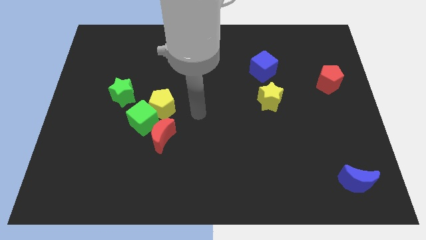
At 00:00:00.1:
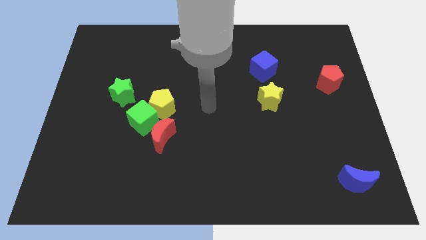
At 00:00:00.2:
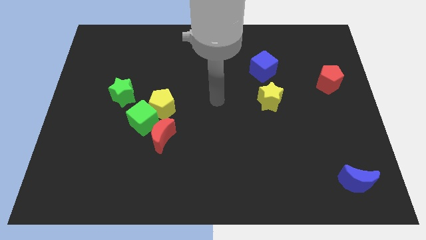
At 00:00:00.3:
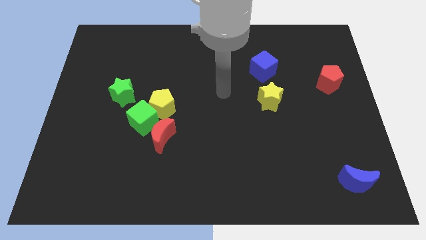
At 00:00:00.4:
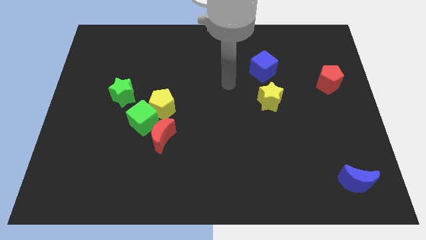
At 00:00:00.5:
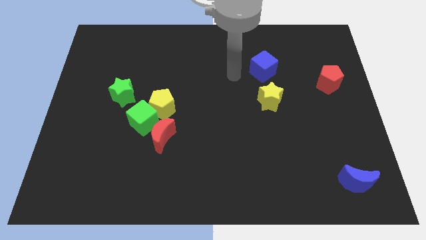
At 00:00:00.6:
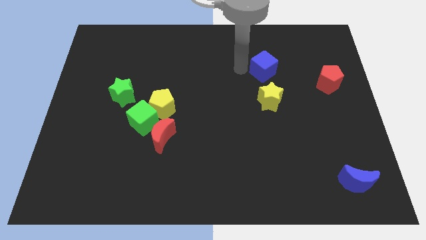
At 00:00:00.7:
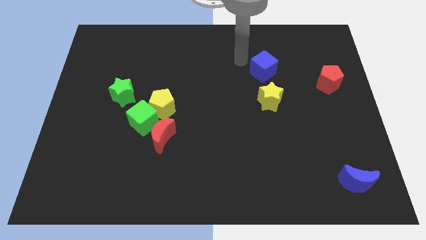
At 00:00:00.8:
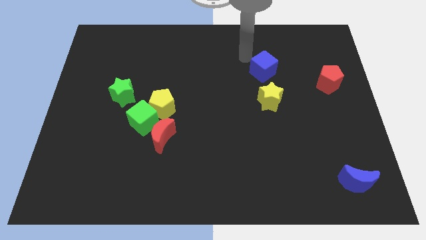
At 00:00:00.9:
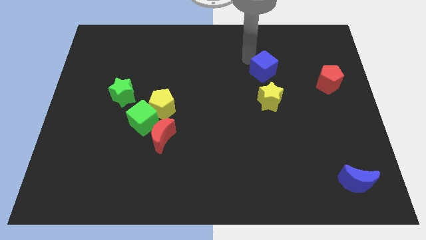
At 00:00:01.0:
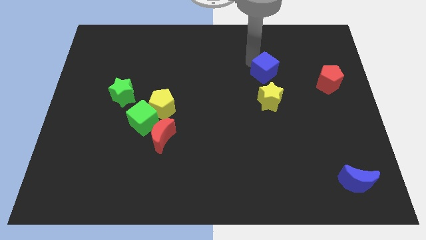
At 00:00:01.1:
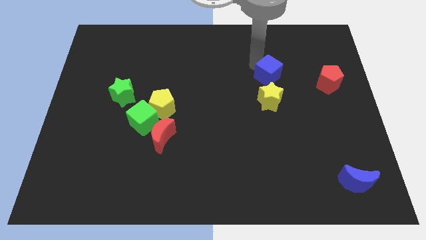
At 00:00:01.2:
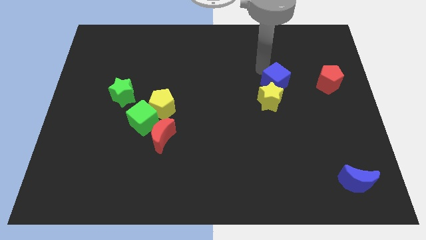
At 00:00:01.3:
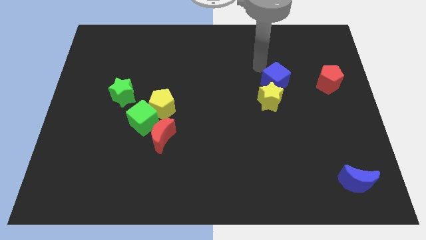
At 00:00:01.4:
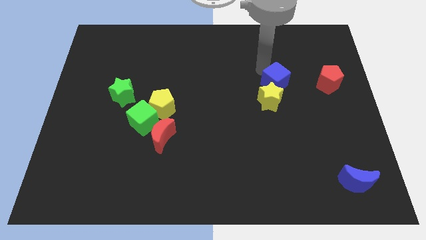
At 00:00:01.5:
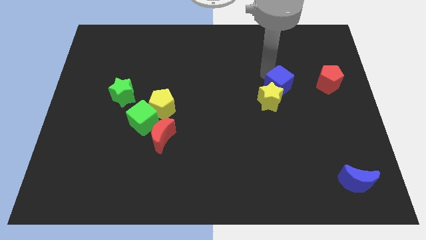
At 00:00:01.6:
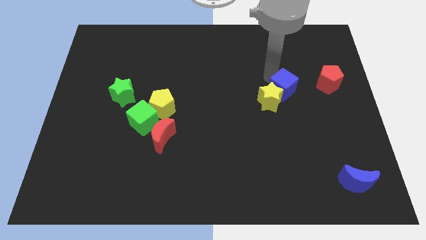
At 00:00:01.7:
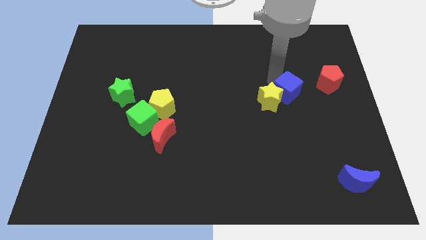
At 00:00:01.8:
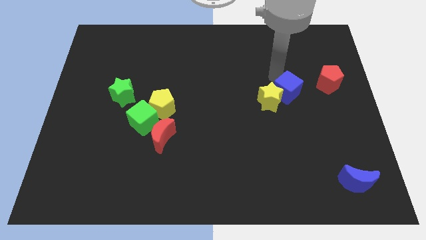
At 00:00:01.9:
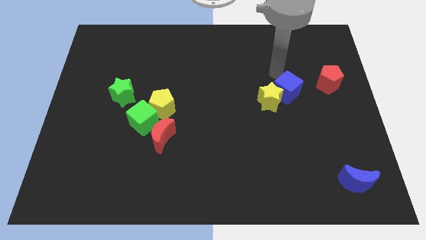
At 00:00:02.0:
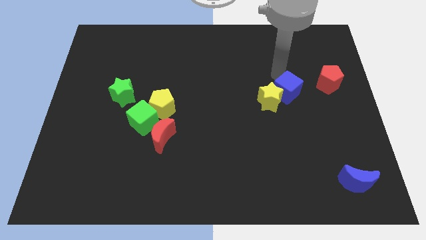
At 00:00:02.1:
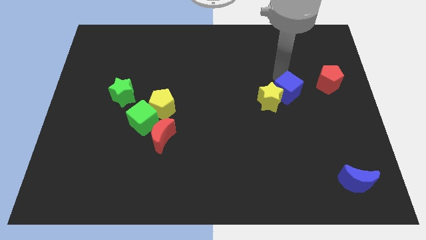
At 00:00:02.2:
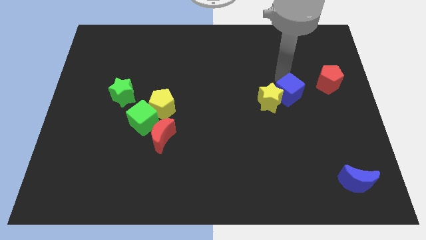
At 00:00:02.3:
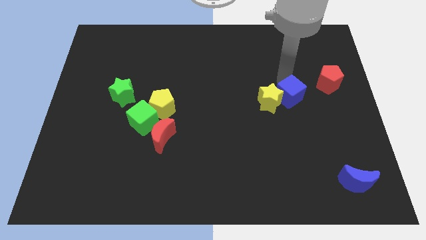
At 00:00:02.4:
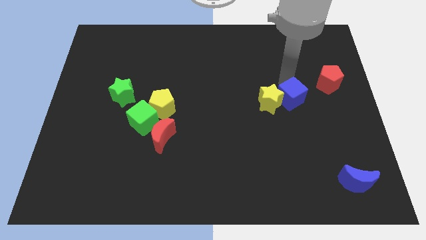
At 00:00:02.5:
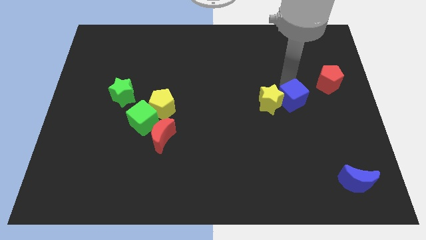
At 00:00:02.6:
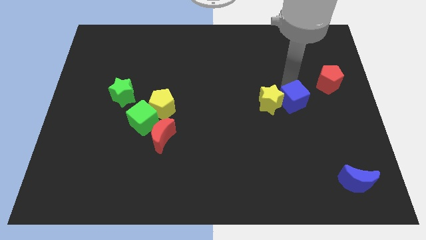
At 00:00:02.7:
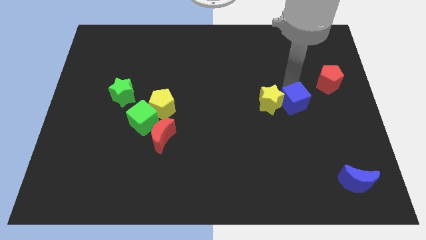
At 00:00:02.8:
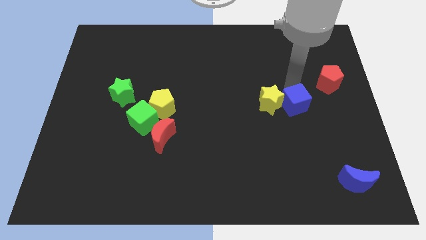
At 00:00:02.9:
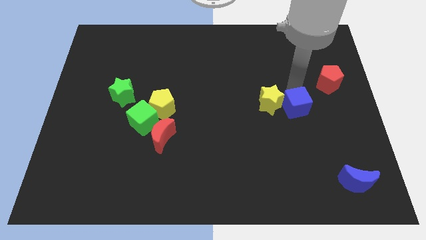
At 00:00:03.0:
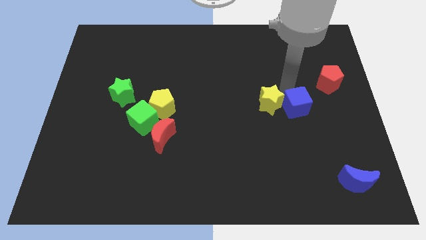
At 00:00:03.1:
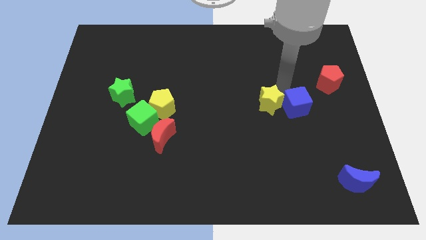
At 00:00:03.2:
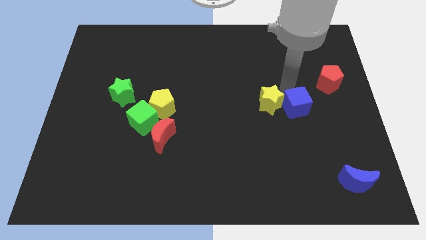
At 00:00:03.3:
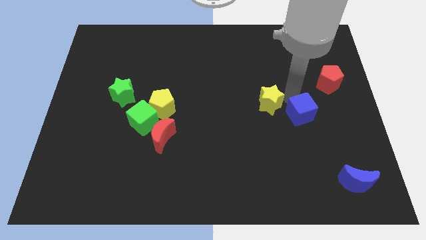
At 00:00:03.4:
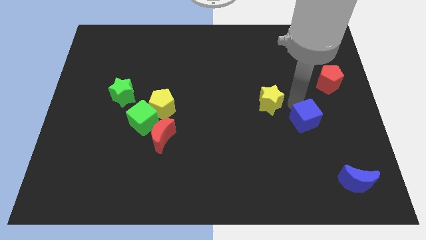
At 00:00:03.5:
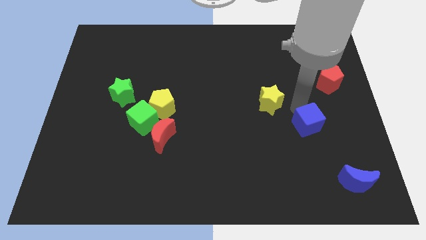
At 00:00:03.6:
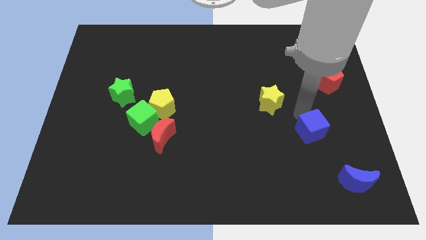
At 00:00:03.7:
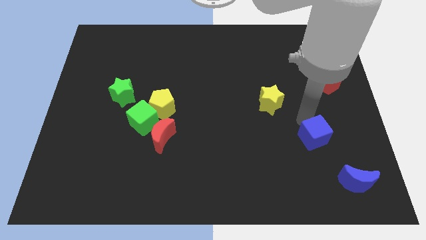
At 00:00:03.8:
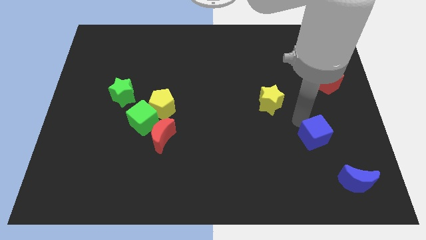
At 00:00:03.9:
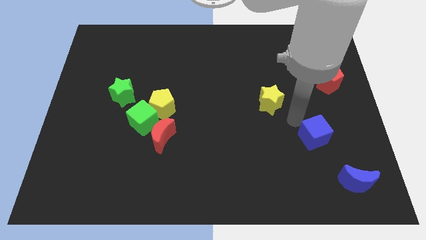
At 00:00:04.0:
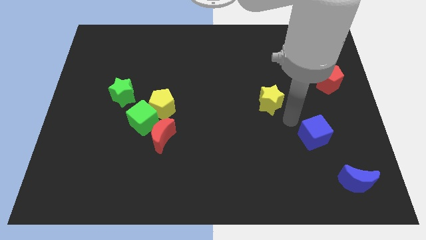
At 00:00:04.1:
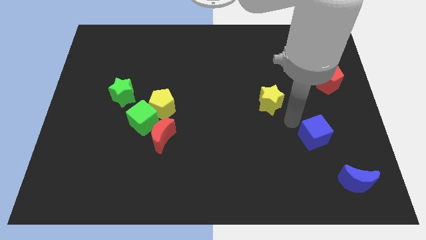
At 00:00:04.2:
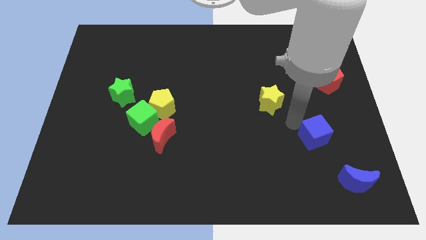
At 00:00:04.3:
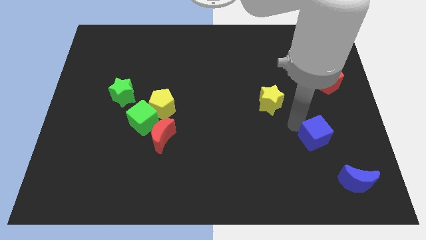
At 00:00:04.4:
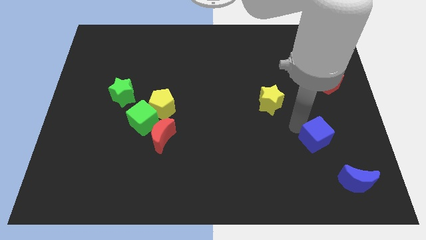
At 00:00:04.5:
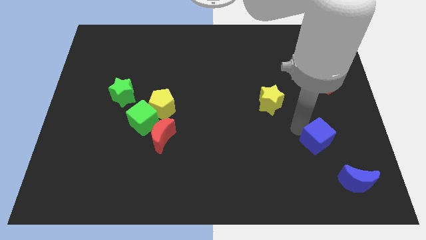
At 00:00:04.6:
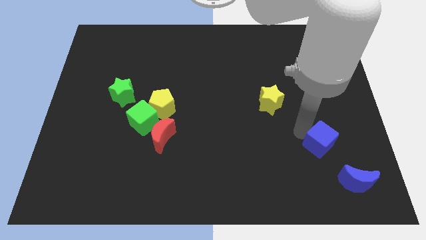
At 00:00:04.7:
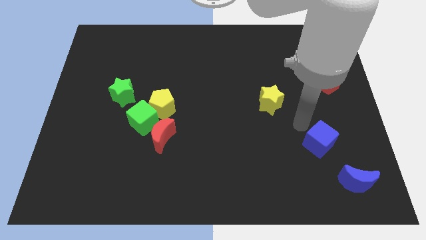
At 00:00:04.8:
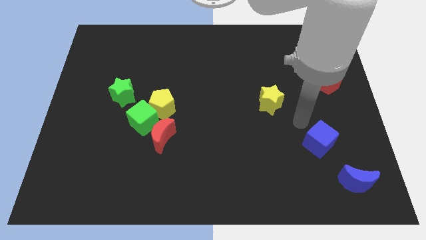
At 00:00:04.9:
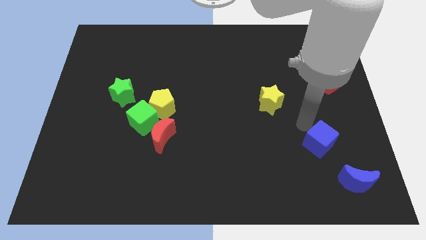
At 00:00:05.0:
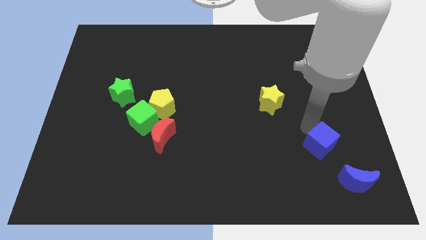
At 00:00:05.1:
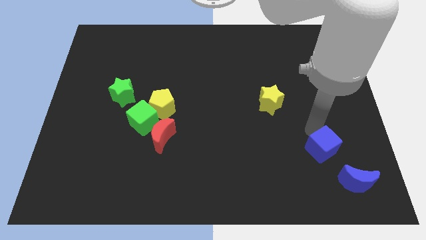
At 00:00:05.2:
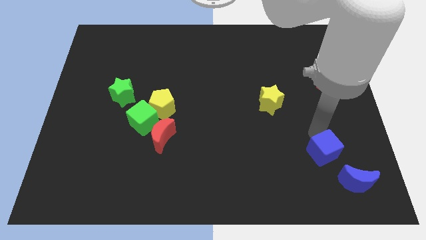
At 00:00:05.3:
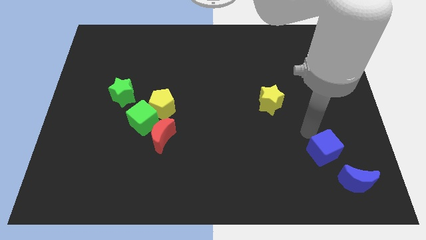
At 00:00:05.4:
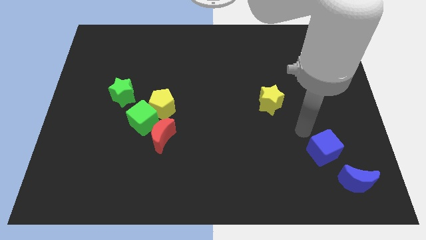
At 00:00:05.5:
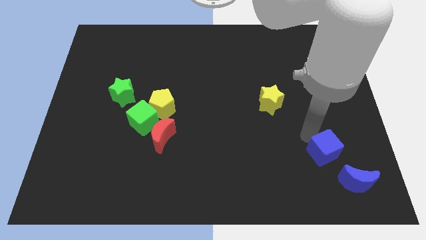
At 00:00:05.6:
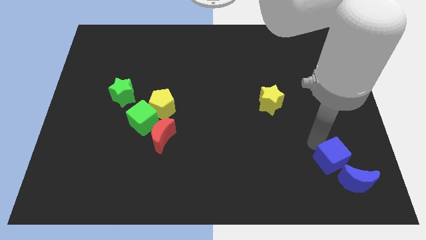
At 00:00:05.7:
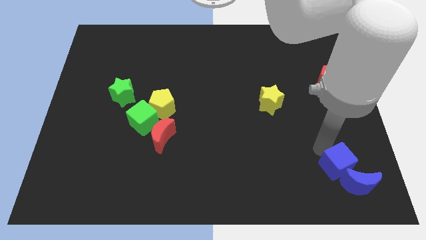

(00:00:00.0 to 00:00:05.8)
slide the blue cube towards the blue moon
